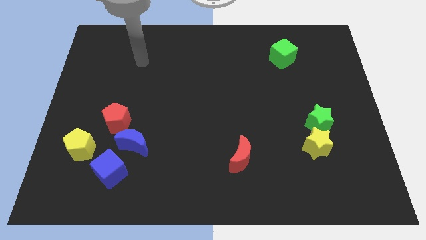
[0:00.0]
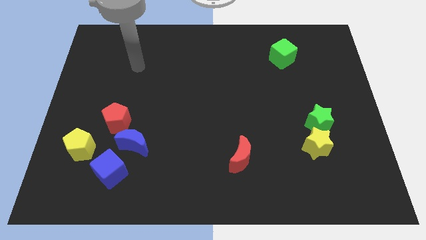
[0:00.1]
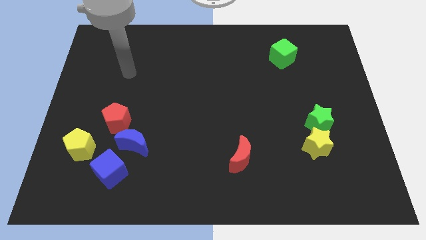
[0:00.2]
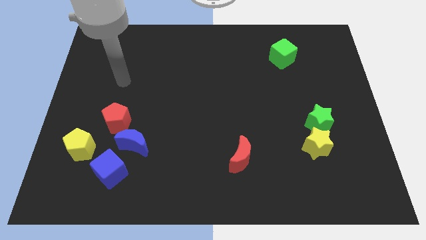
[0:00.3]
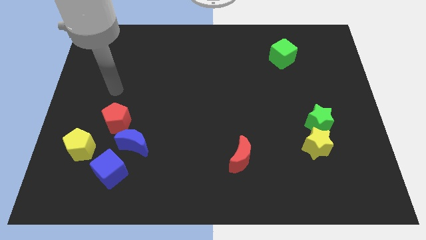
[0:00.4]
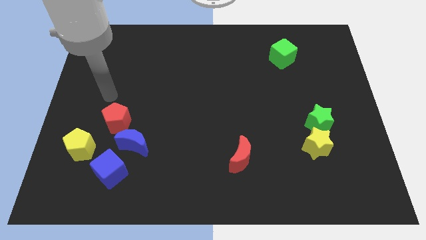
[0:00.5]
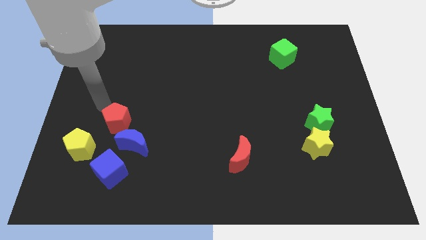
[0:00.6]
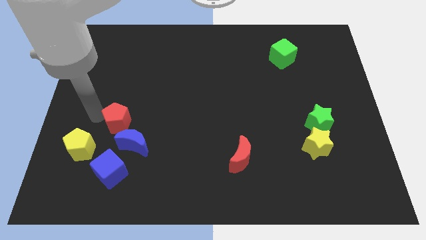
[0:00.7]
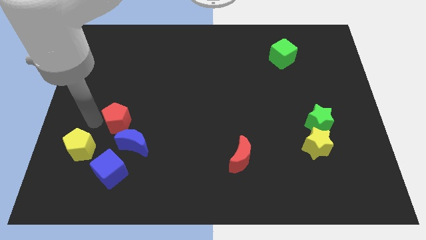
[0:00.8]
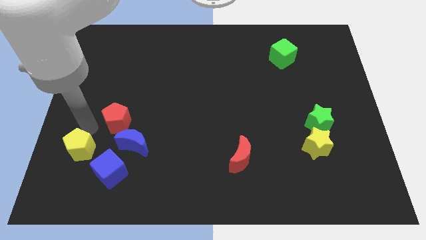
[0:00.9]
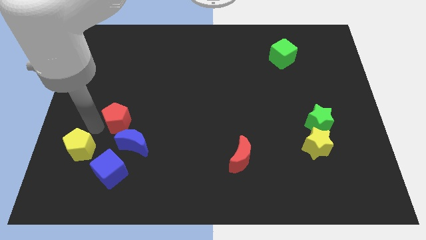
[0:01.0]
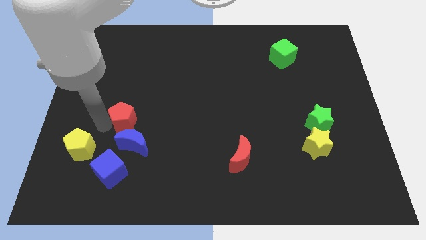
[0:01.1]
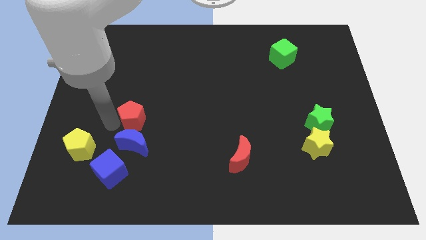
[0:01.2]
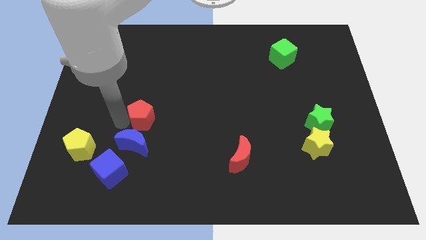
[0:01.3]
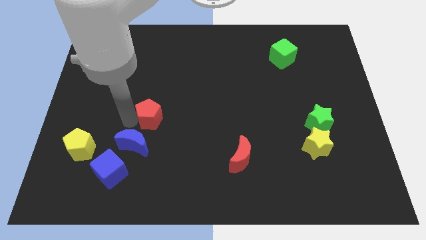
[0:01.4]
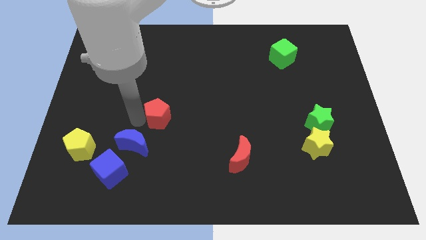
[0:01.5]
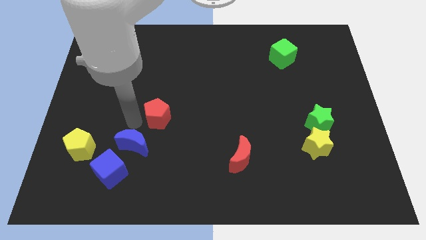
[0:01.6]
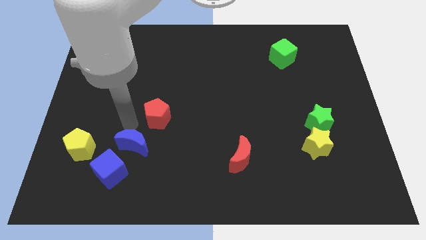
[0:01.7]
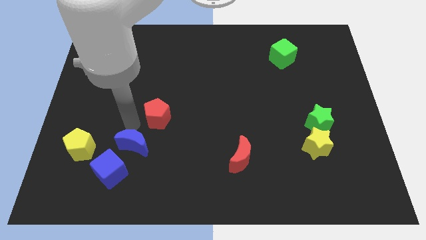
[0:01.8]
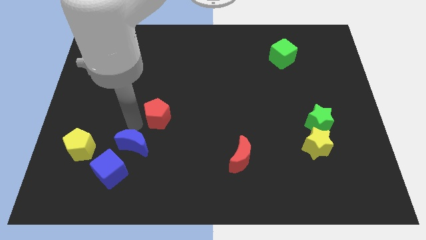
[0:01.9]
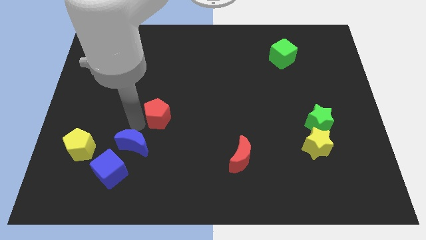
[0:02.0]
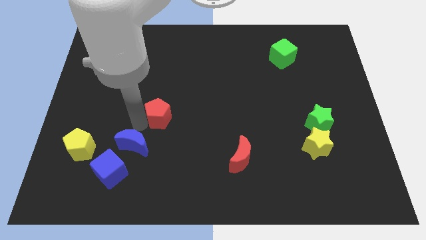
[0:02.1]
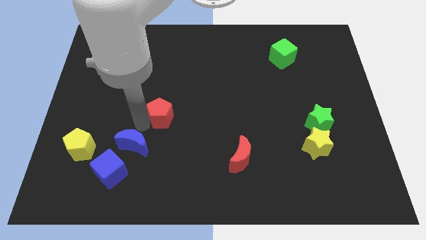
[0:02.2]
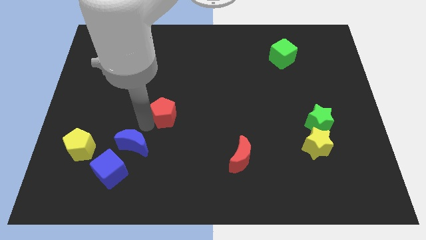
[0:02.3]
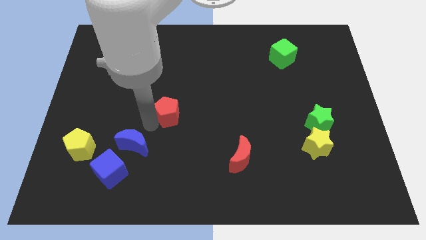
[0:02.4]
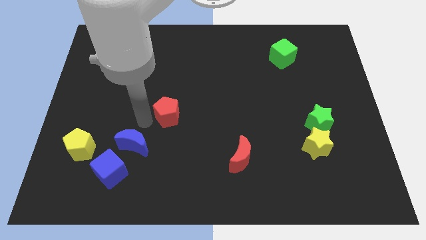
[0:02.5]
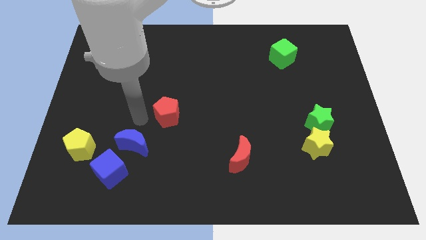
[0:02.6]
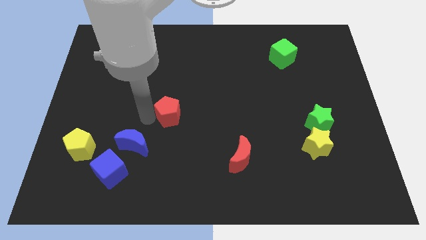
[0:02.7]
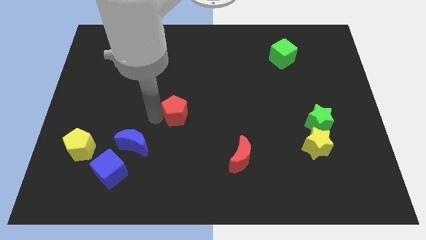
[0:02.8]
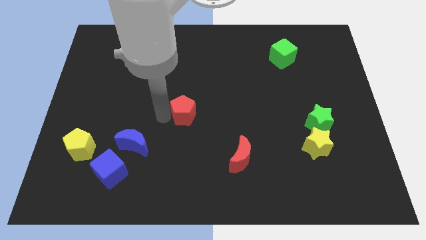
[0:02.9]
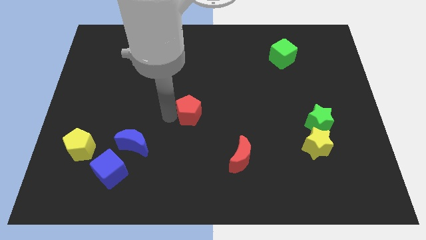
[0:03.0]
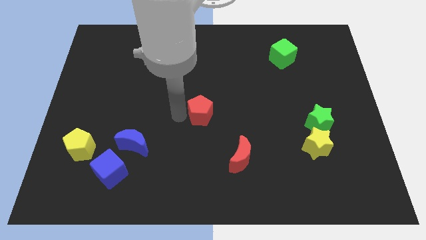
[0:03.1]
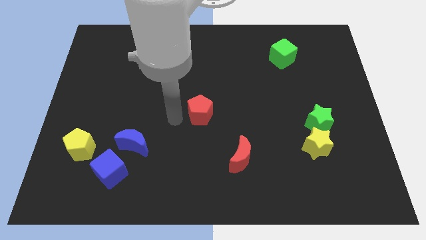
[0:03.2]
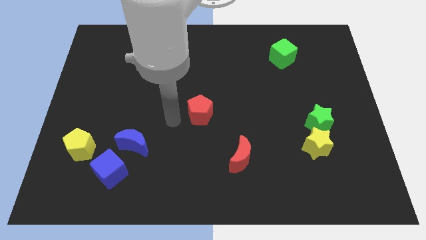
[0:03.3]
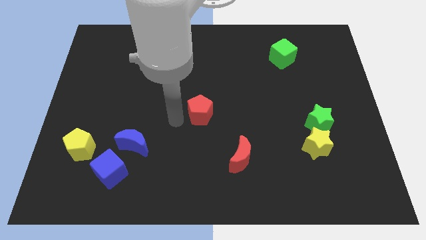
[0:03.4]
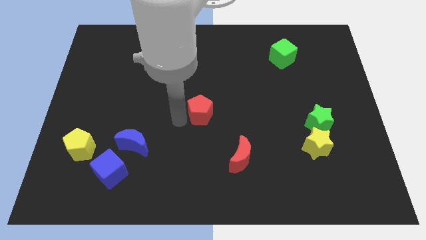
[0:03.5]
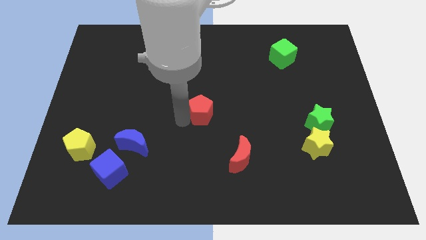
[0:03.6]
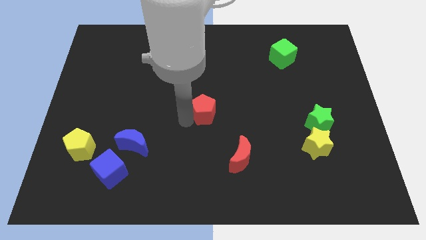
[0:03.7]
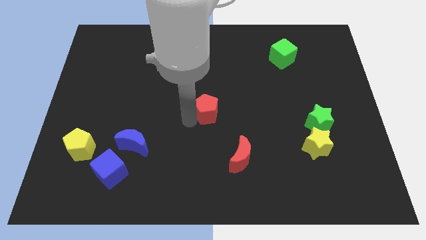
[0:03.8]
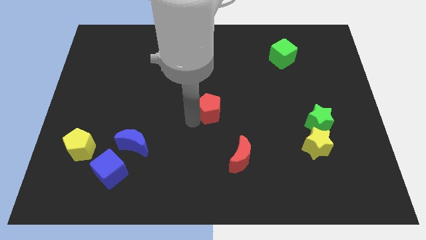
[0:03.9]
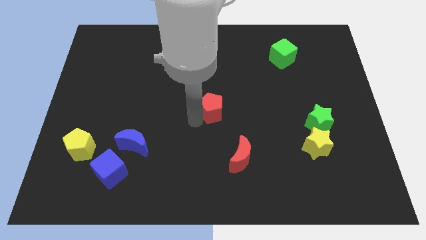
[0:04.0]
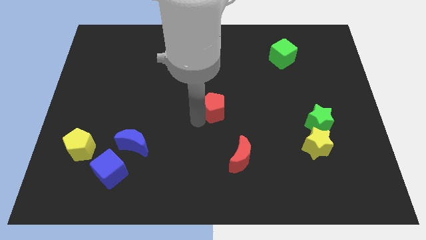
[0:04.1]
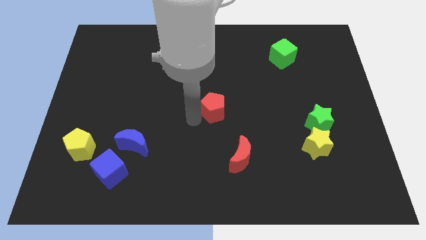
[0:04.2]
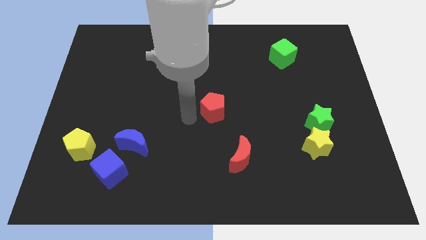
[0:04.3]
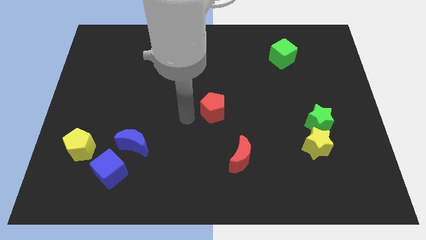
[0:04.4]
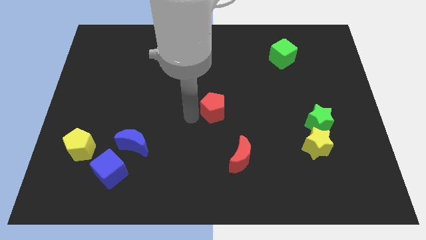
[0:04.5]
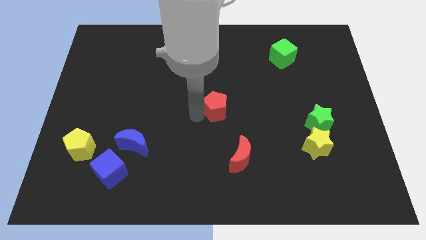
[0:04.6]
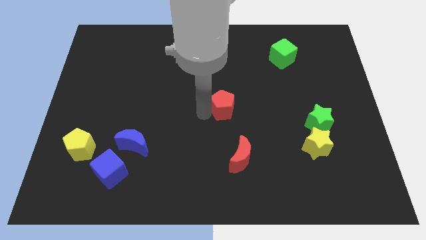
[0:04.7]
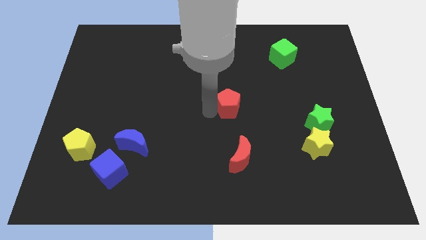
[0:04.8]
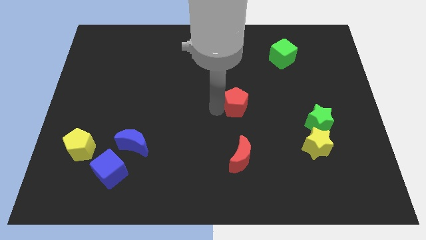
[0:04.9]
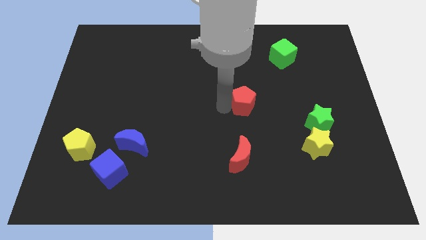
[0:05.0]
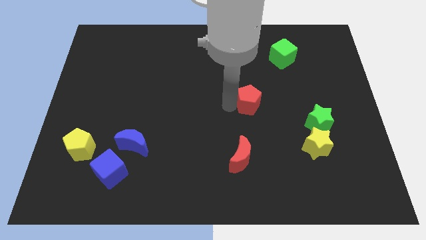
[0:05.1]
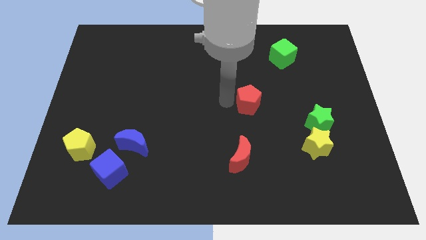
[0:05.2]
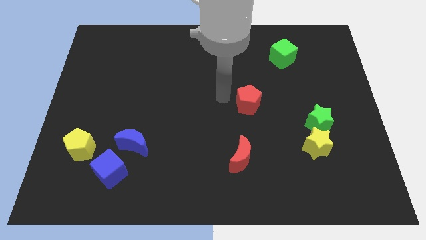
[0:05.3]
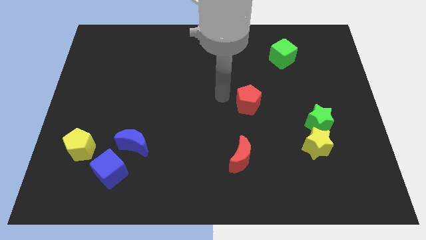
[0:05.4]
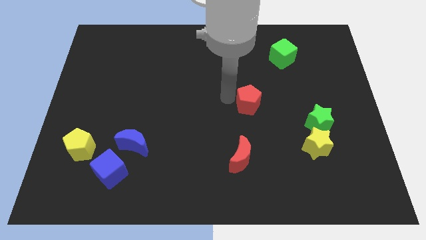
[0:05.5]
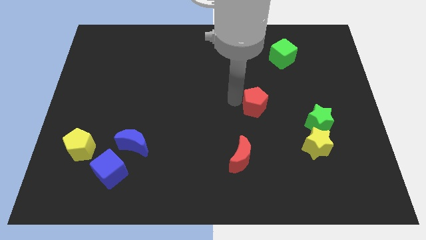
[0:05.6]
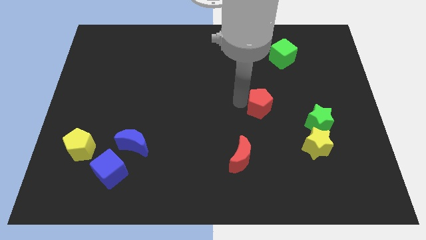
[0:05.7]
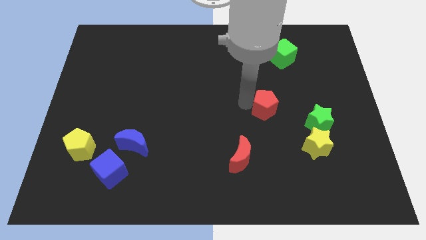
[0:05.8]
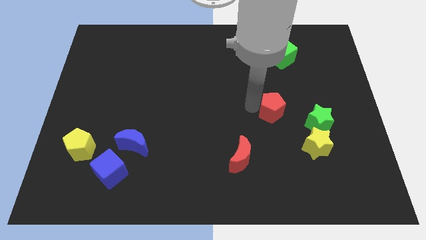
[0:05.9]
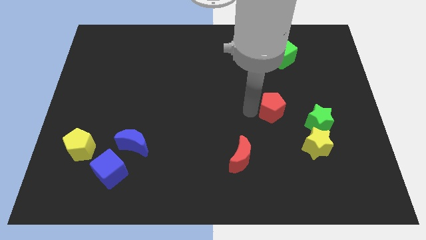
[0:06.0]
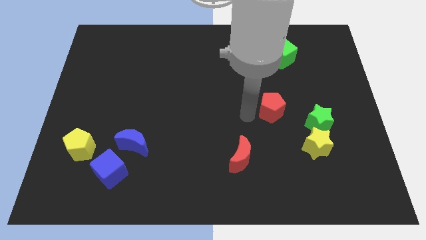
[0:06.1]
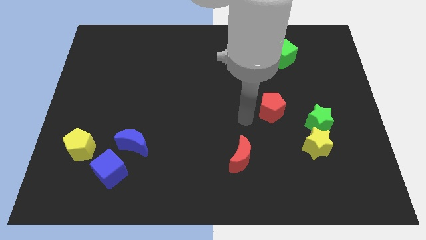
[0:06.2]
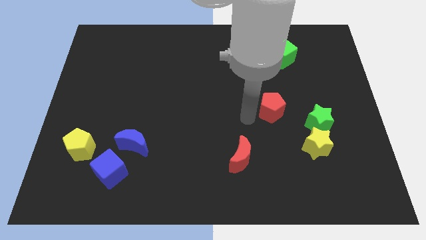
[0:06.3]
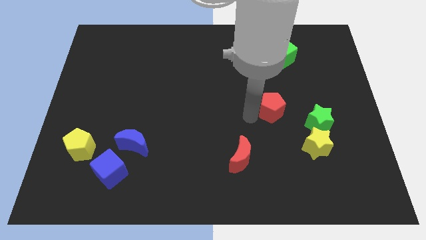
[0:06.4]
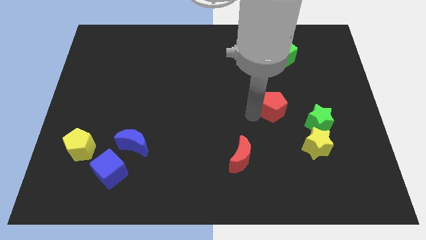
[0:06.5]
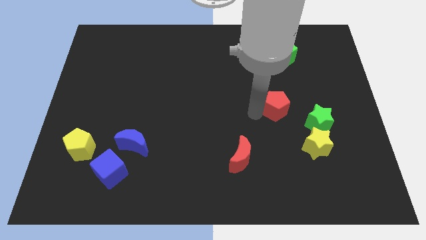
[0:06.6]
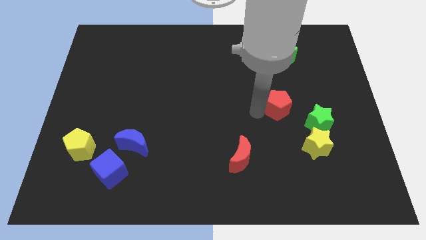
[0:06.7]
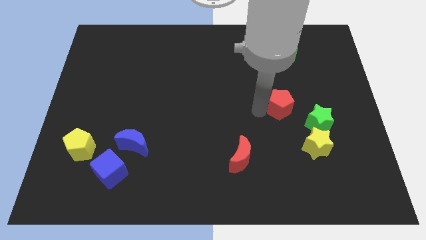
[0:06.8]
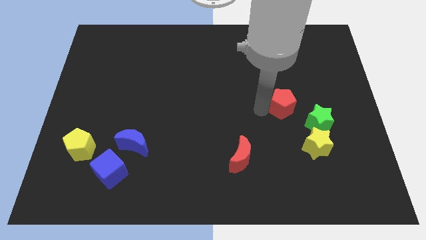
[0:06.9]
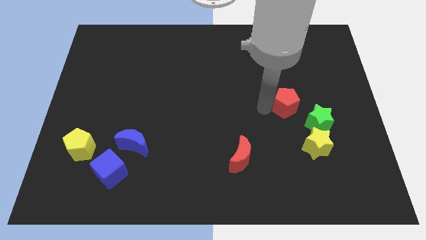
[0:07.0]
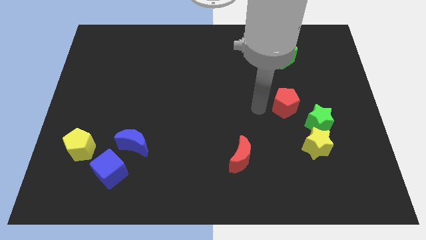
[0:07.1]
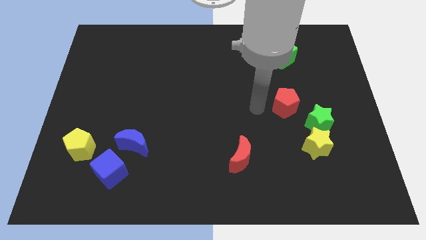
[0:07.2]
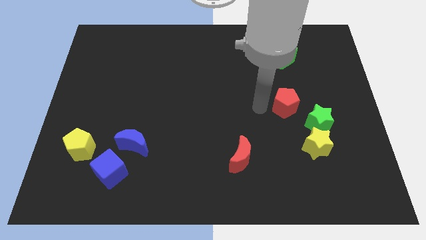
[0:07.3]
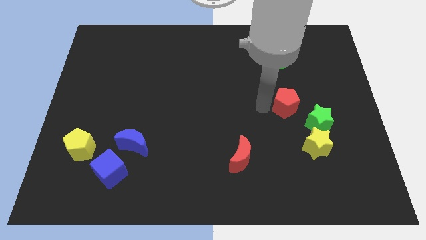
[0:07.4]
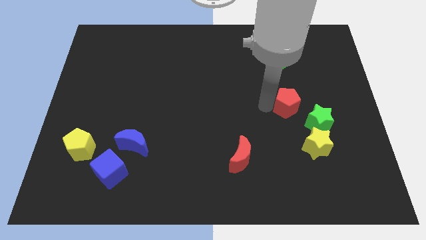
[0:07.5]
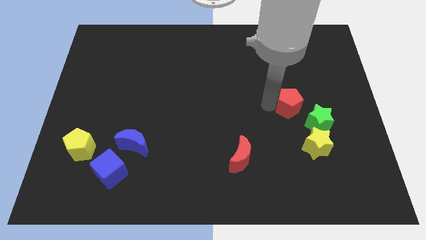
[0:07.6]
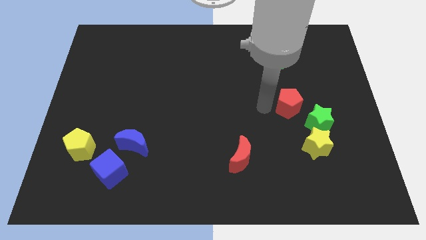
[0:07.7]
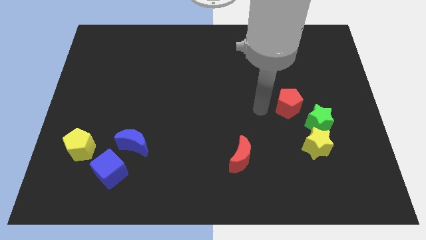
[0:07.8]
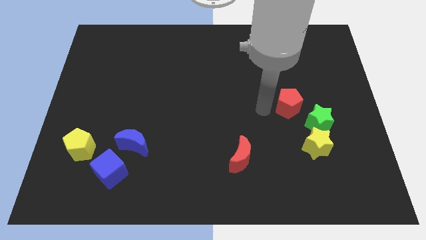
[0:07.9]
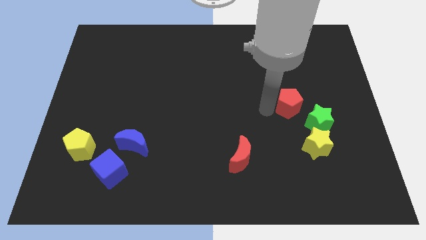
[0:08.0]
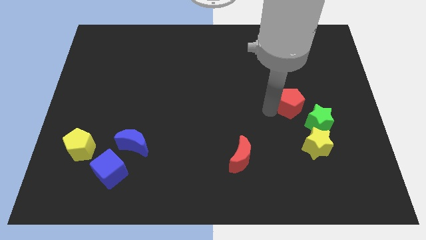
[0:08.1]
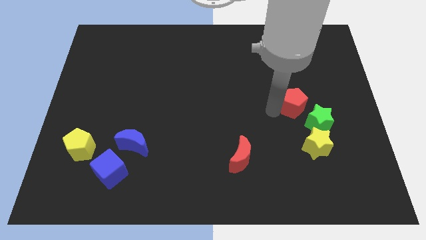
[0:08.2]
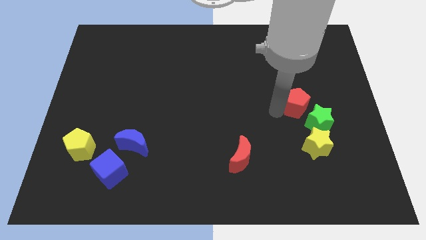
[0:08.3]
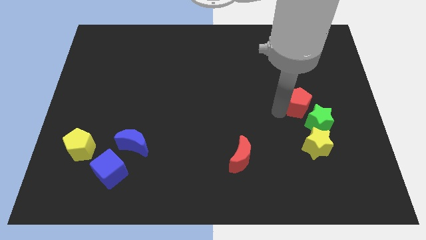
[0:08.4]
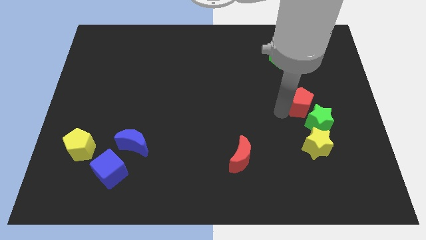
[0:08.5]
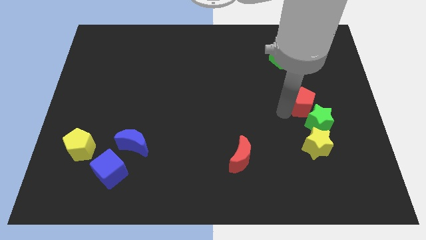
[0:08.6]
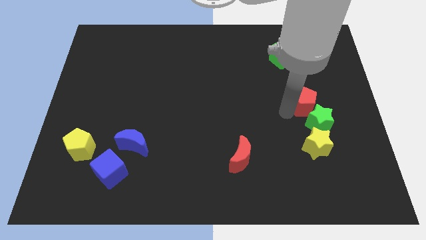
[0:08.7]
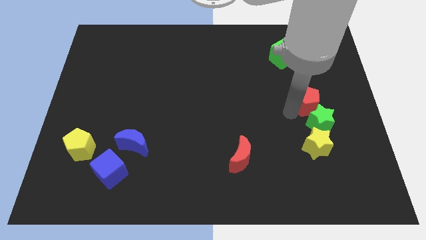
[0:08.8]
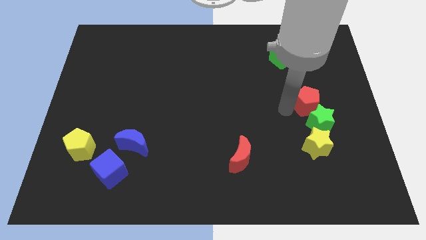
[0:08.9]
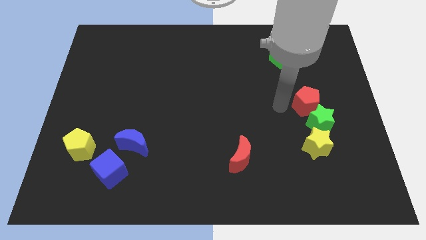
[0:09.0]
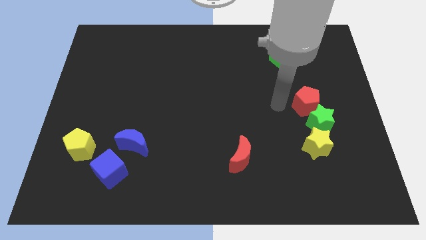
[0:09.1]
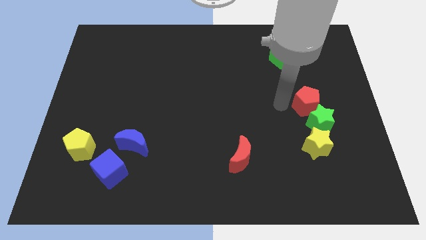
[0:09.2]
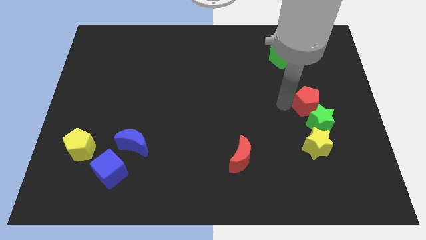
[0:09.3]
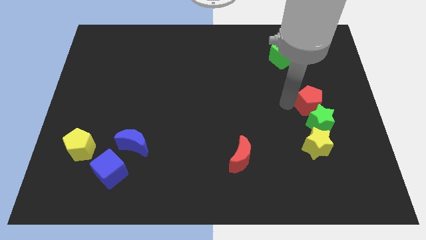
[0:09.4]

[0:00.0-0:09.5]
move the red pentagon to the top right of the green star
